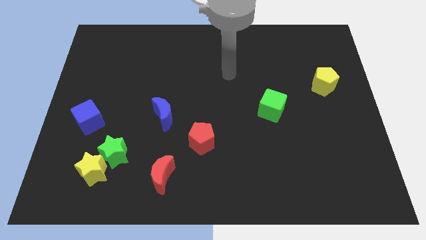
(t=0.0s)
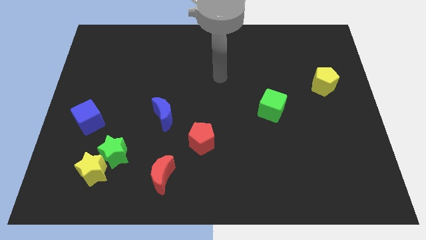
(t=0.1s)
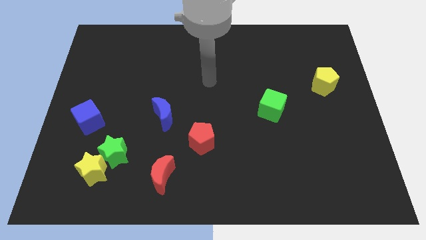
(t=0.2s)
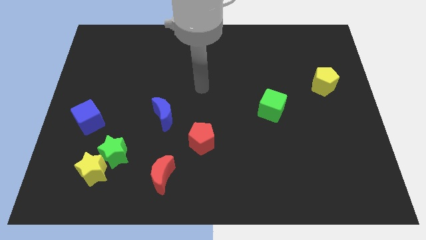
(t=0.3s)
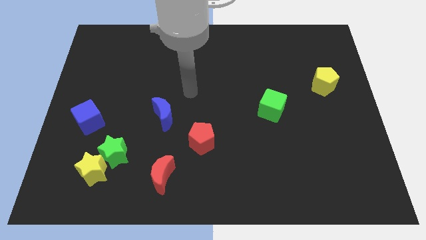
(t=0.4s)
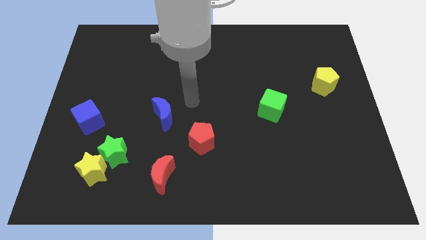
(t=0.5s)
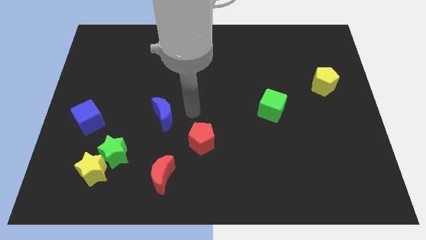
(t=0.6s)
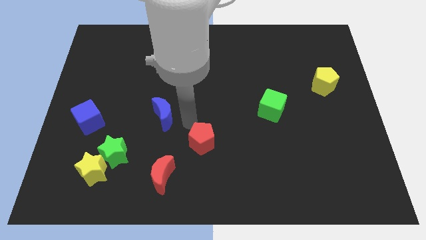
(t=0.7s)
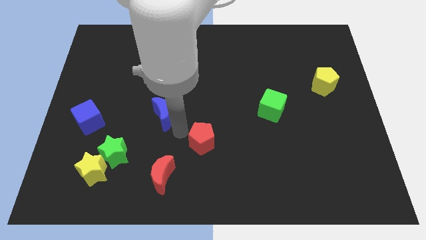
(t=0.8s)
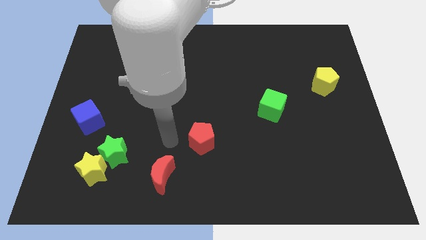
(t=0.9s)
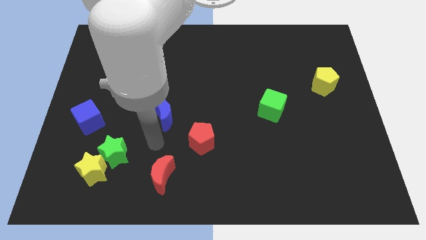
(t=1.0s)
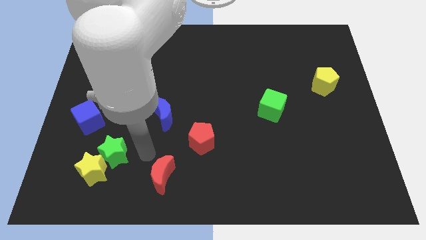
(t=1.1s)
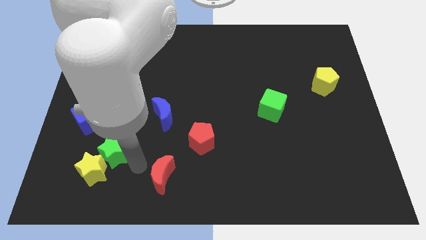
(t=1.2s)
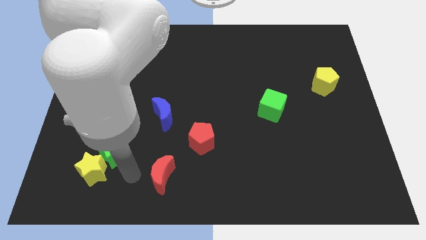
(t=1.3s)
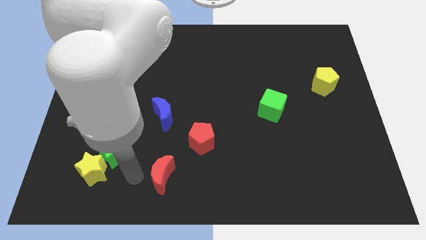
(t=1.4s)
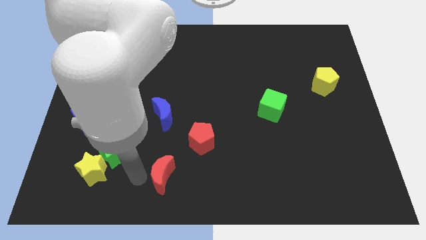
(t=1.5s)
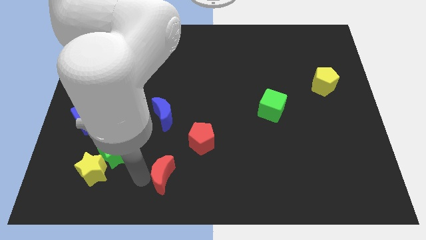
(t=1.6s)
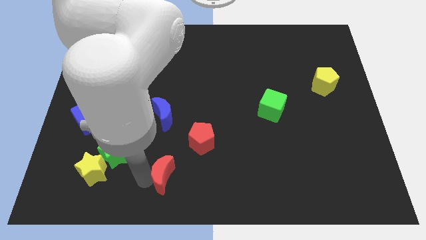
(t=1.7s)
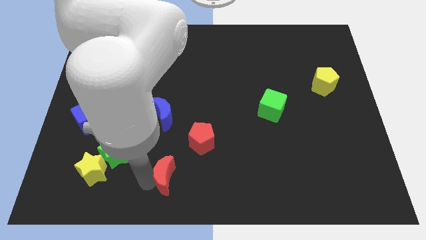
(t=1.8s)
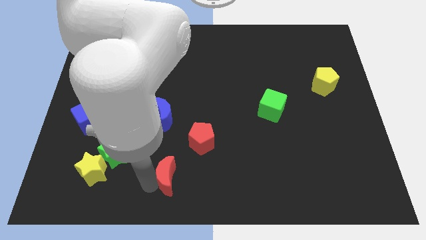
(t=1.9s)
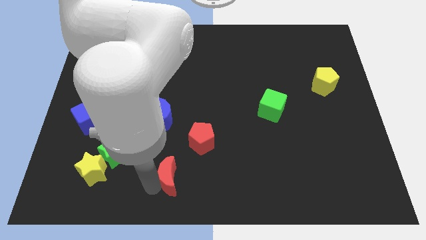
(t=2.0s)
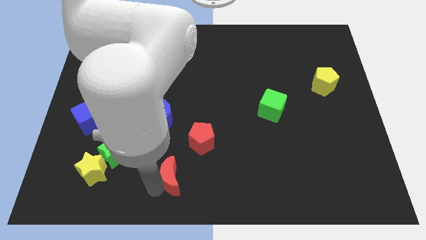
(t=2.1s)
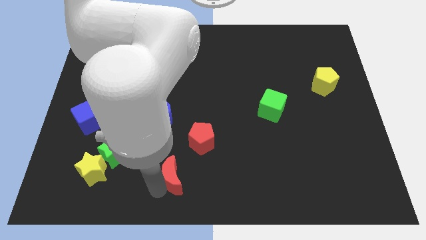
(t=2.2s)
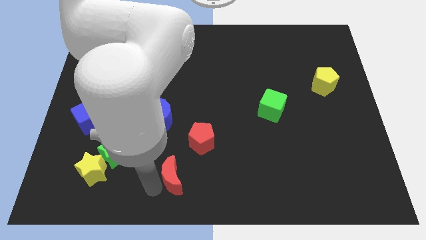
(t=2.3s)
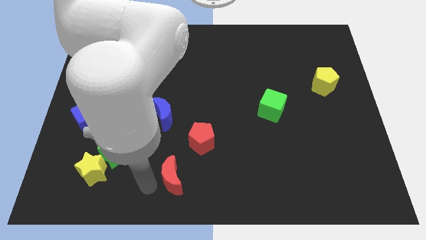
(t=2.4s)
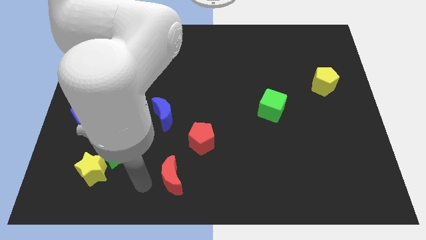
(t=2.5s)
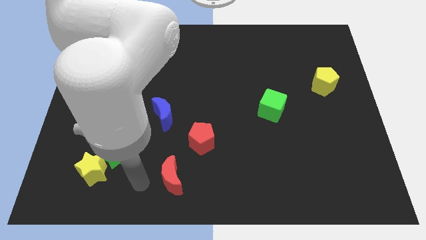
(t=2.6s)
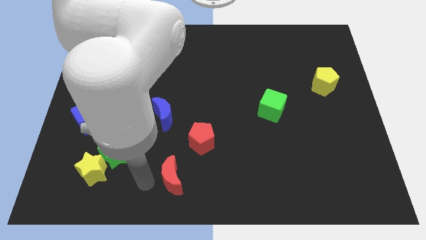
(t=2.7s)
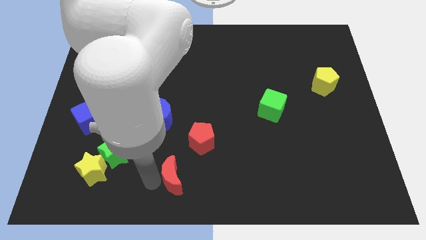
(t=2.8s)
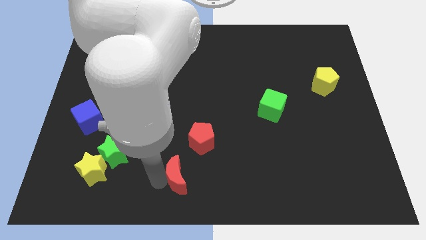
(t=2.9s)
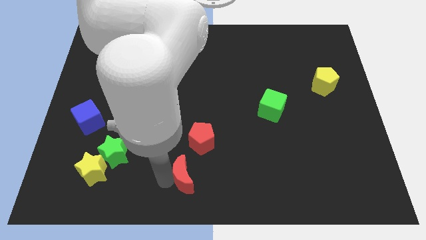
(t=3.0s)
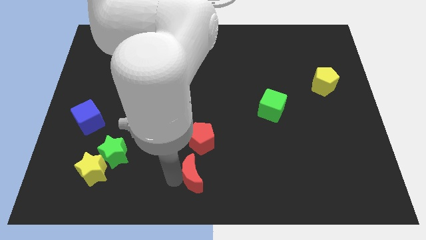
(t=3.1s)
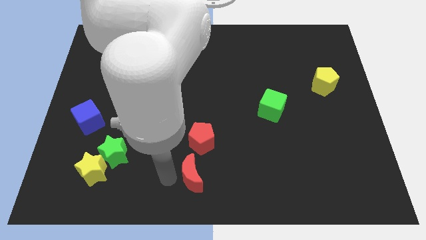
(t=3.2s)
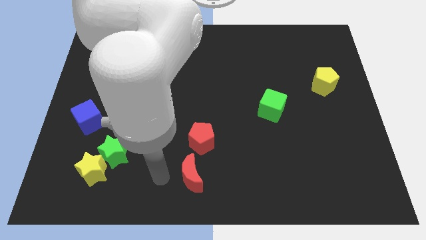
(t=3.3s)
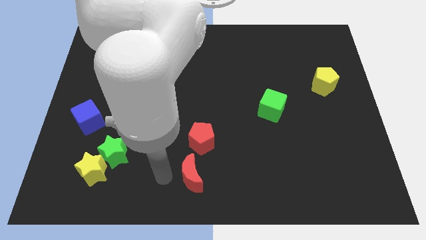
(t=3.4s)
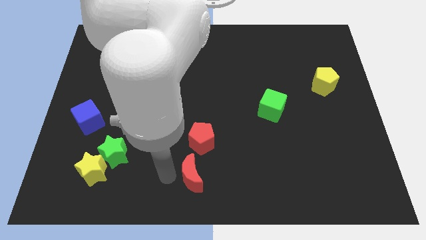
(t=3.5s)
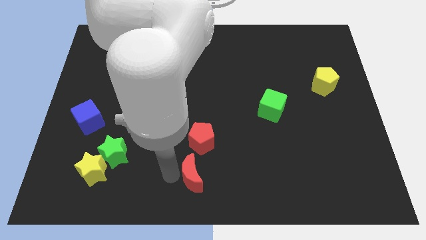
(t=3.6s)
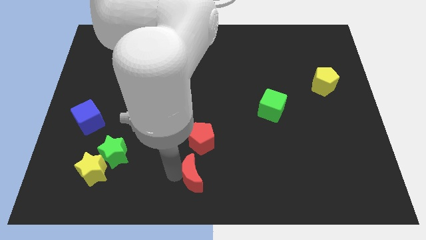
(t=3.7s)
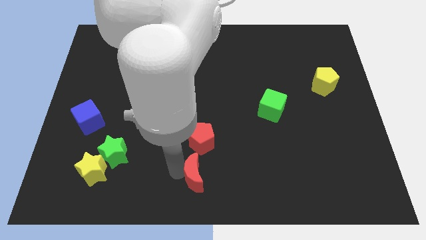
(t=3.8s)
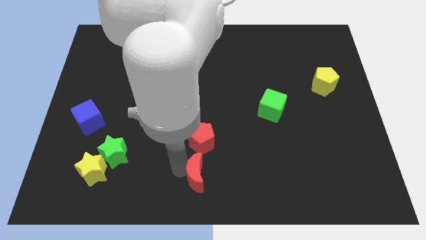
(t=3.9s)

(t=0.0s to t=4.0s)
push the red moon a little right

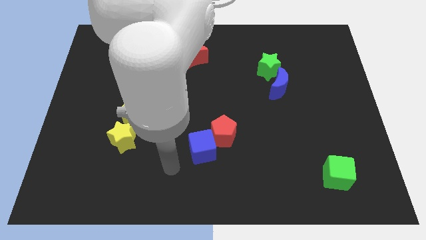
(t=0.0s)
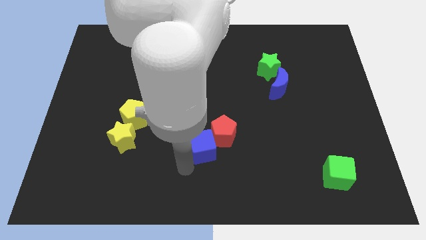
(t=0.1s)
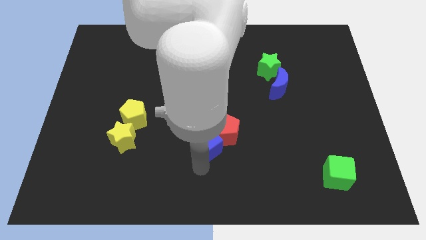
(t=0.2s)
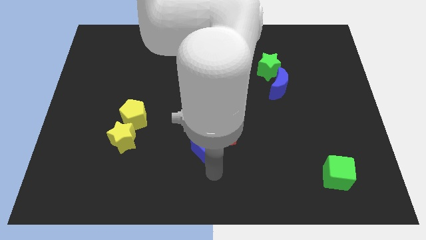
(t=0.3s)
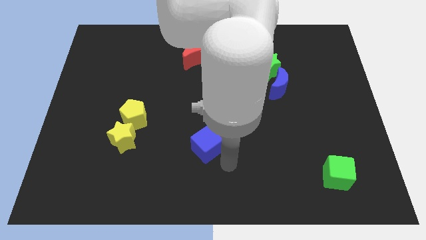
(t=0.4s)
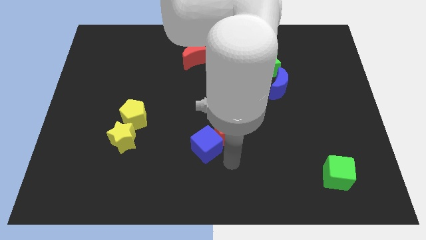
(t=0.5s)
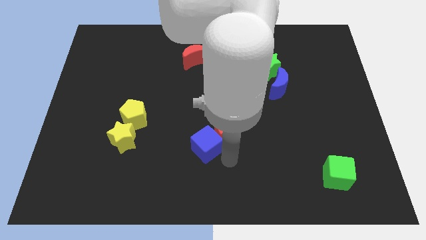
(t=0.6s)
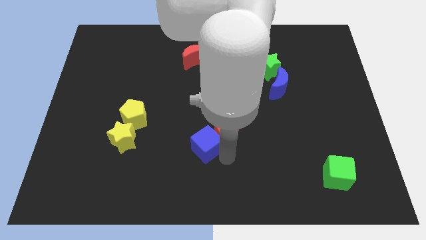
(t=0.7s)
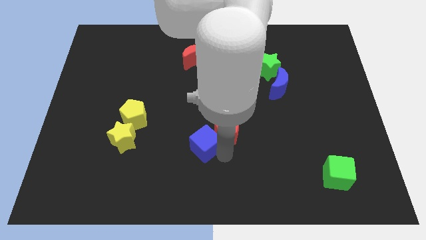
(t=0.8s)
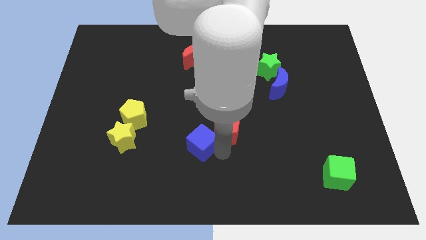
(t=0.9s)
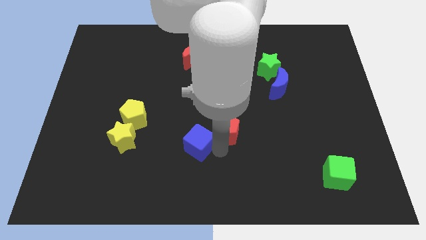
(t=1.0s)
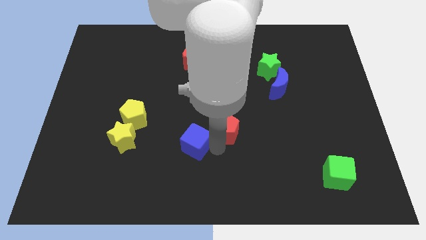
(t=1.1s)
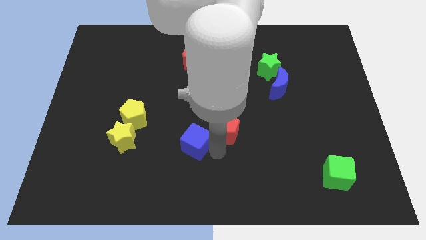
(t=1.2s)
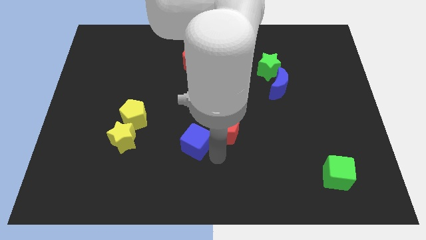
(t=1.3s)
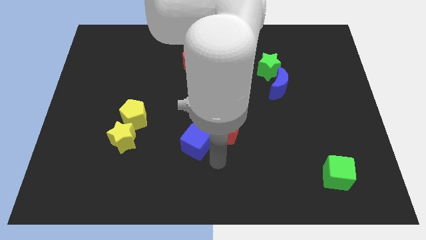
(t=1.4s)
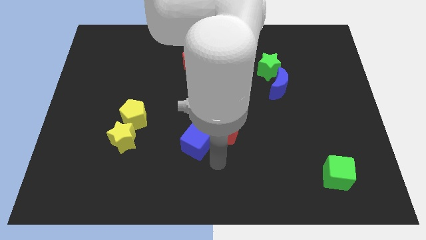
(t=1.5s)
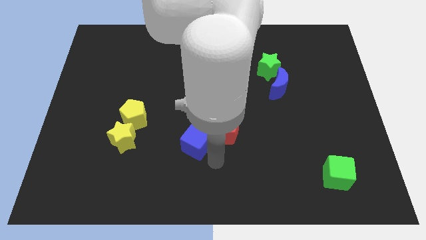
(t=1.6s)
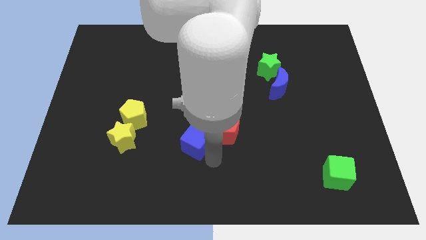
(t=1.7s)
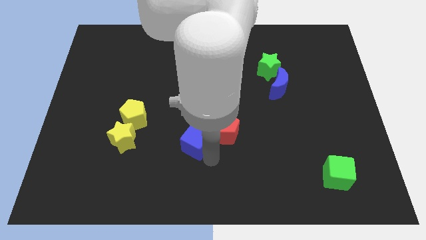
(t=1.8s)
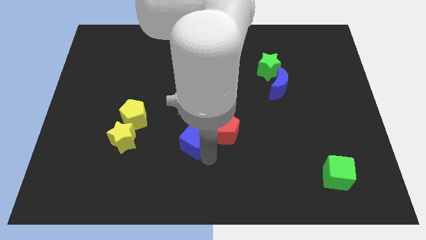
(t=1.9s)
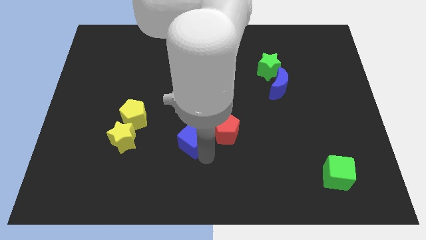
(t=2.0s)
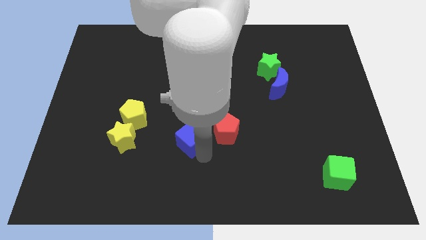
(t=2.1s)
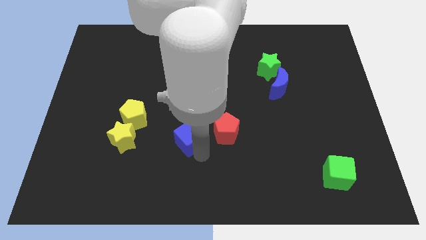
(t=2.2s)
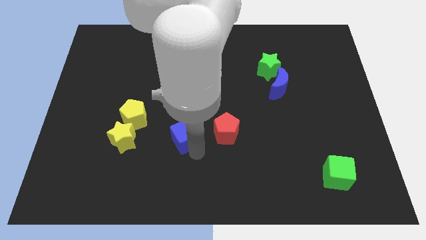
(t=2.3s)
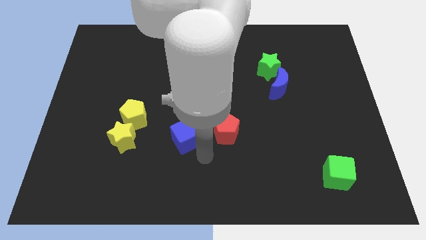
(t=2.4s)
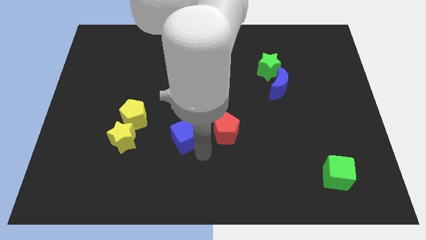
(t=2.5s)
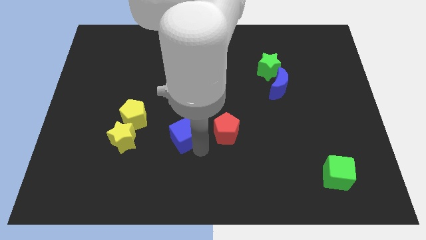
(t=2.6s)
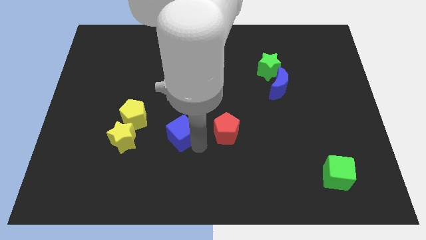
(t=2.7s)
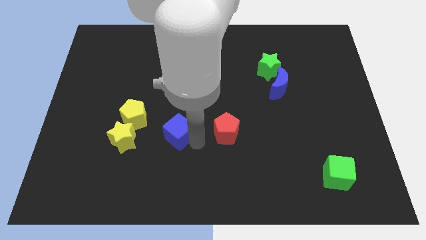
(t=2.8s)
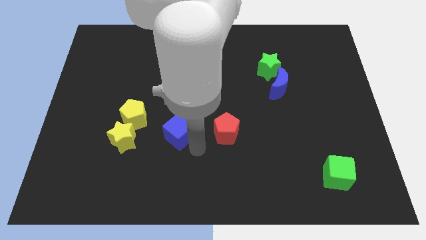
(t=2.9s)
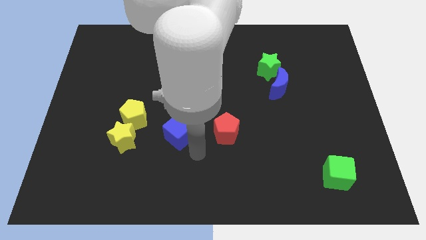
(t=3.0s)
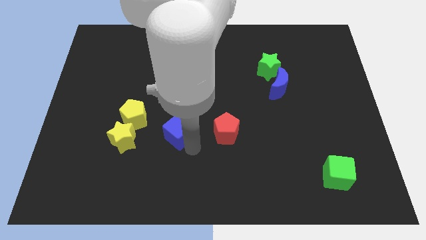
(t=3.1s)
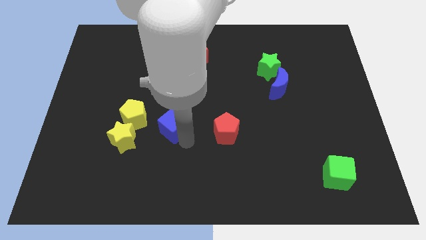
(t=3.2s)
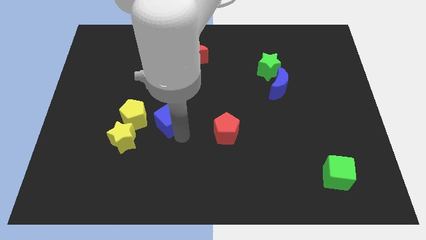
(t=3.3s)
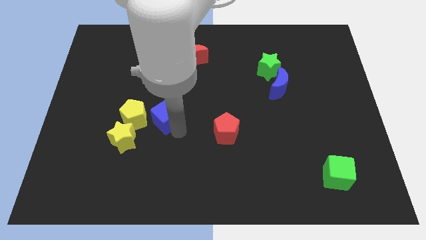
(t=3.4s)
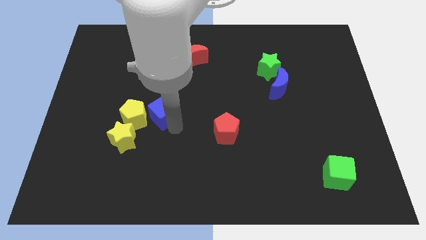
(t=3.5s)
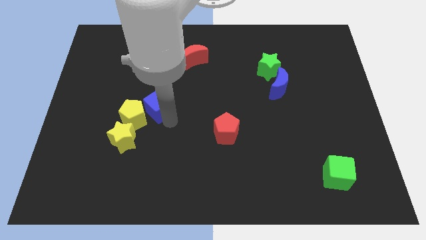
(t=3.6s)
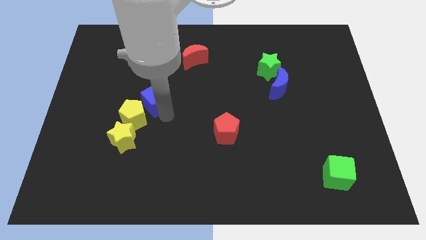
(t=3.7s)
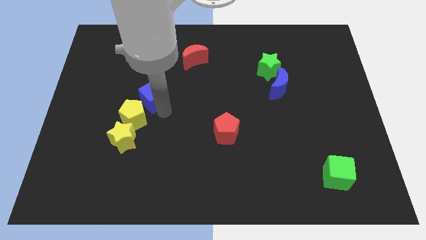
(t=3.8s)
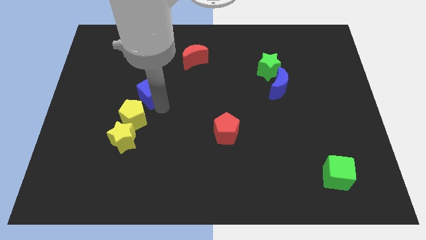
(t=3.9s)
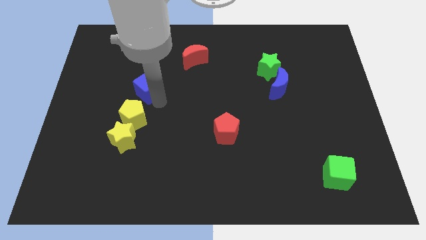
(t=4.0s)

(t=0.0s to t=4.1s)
push the blue cube up and then to the left
